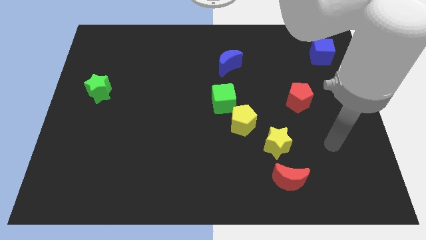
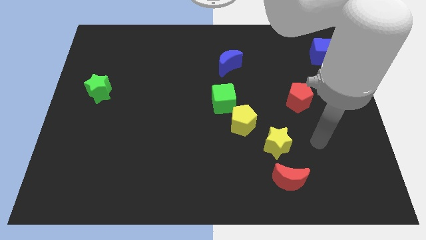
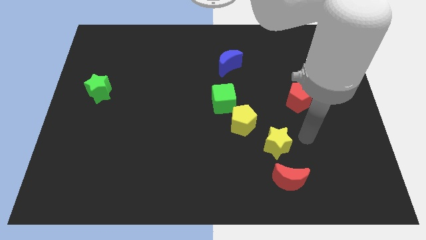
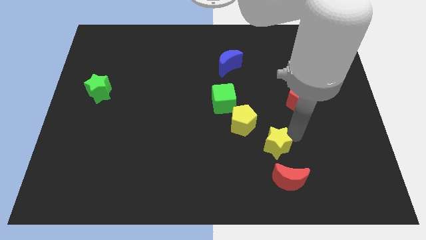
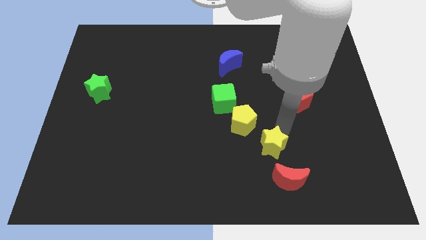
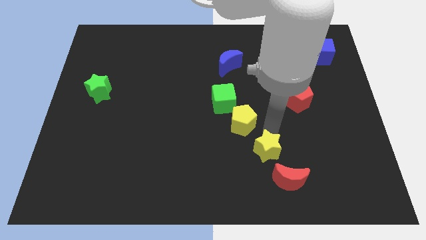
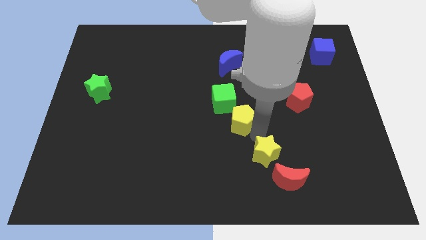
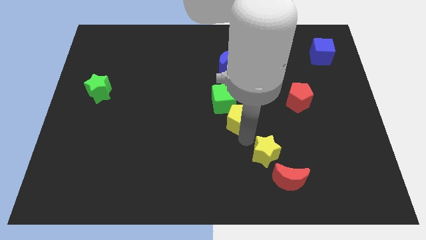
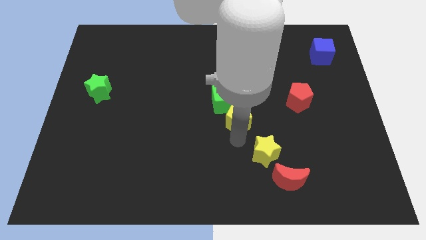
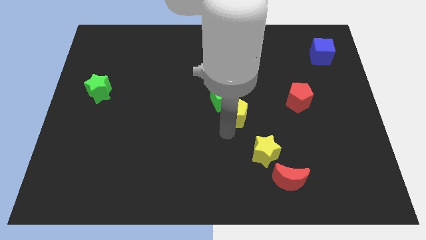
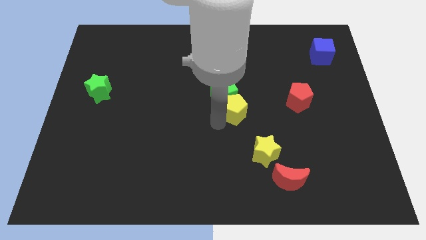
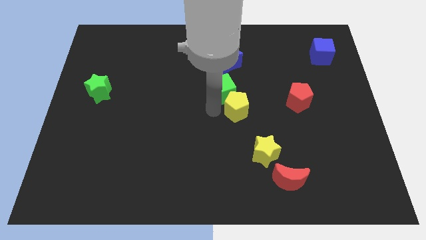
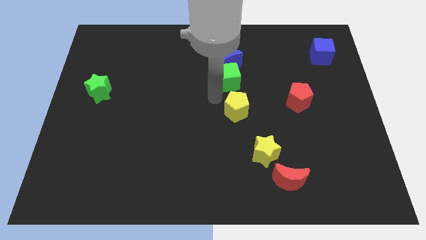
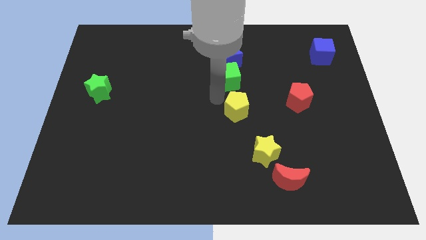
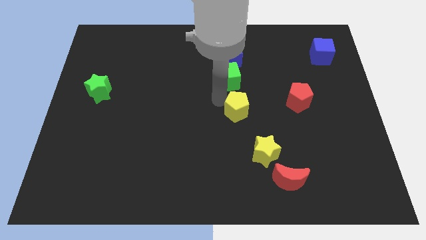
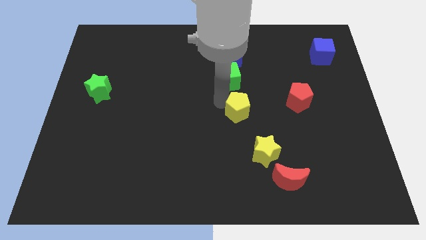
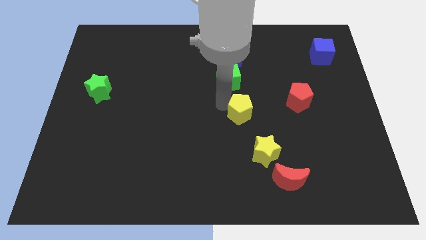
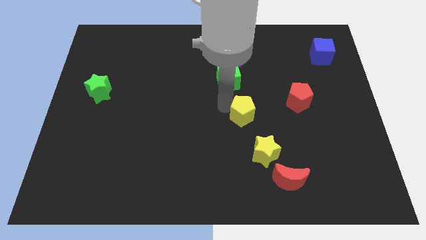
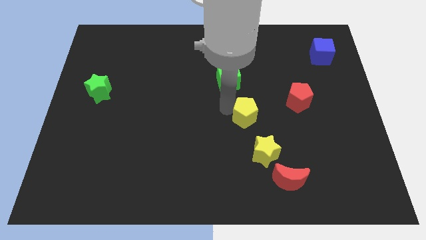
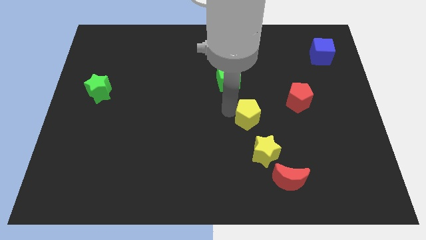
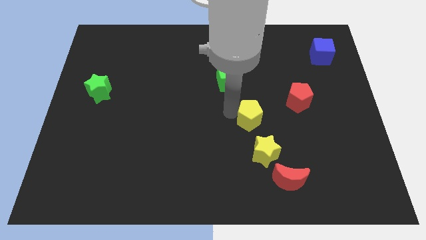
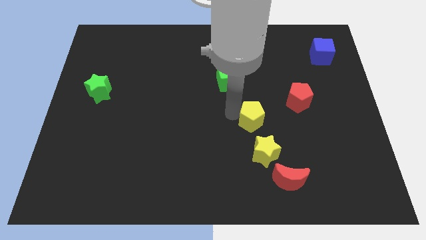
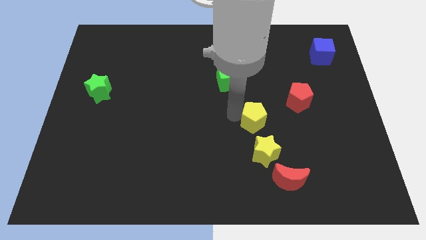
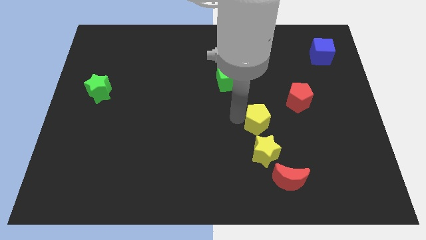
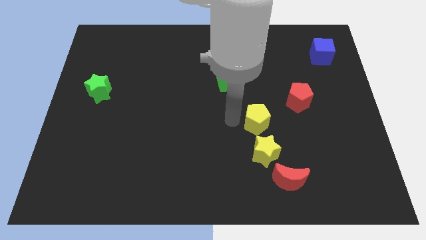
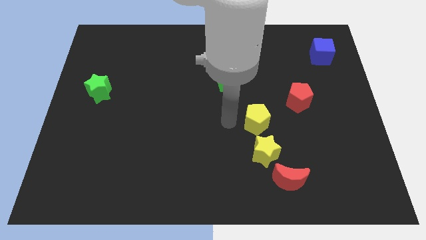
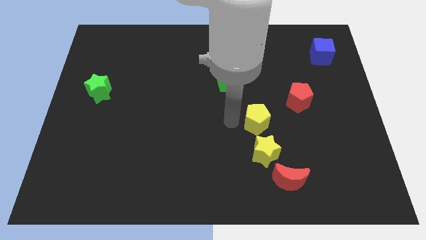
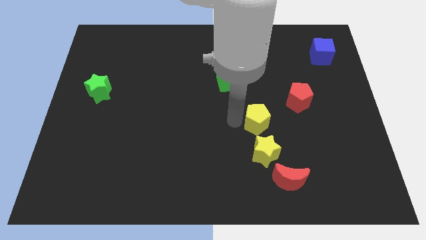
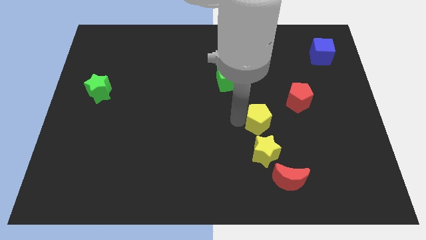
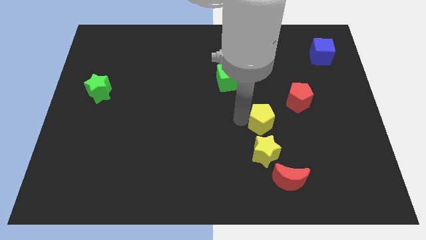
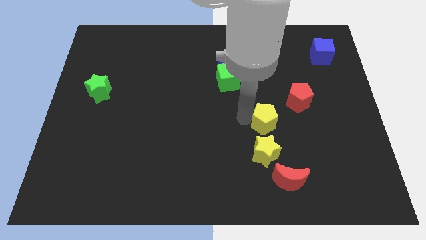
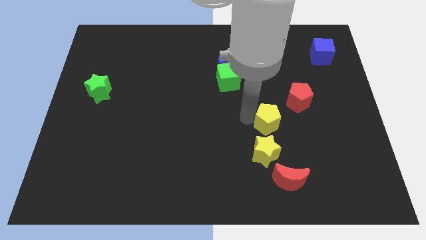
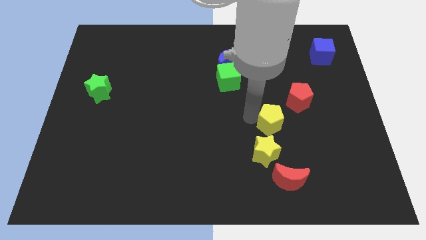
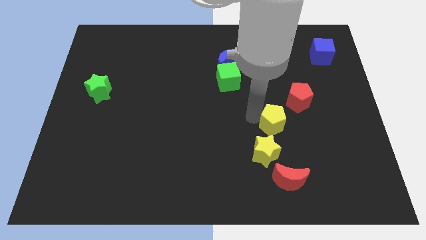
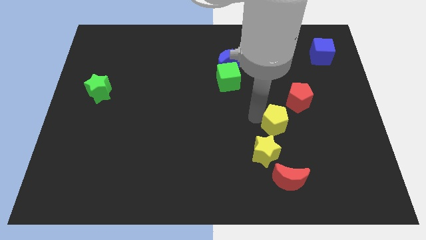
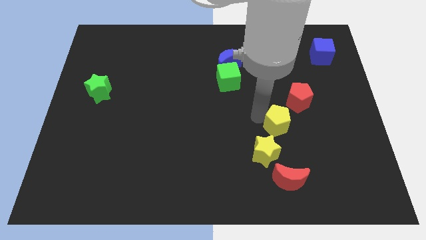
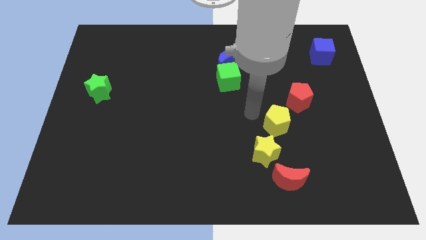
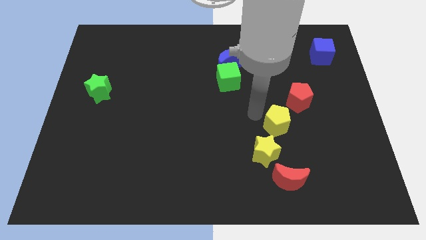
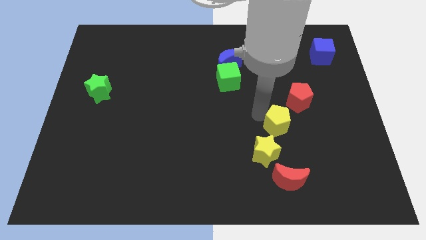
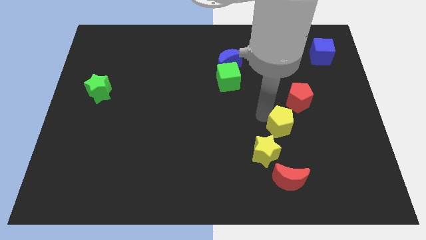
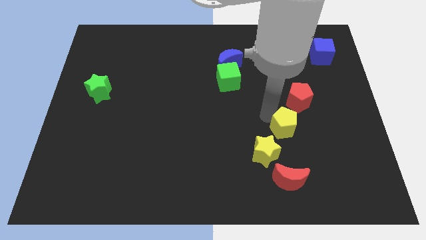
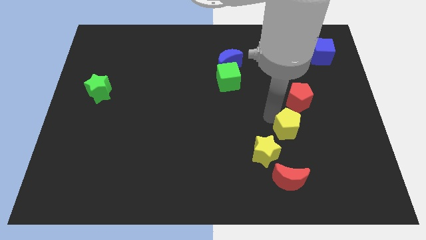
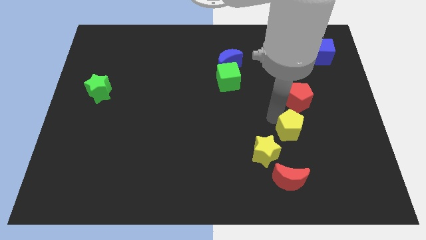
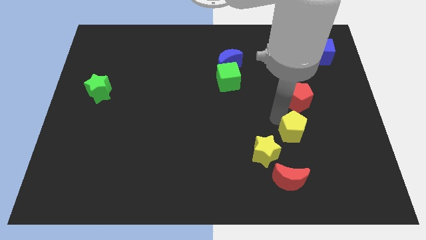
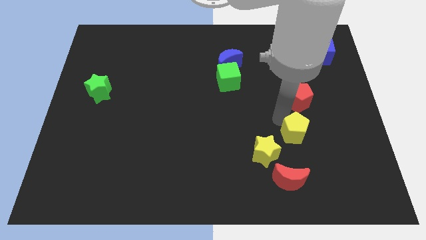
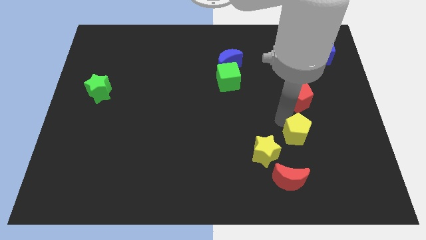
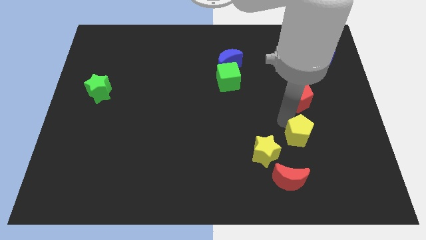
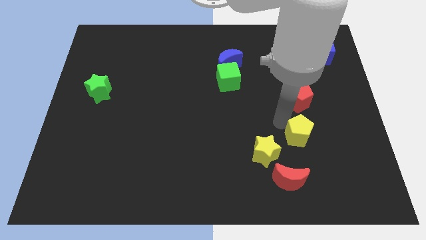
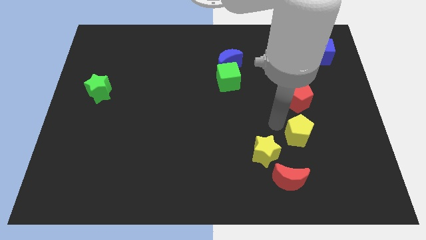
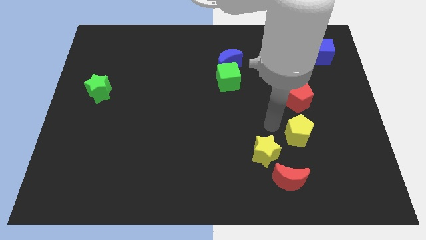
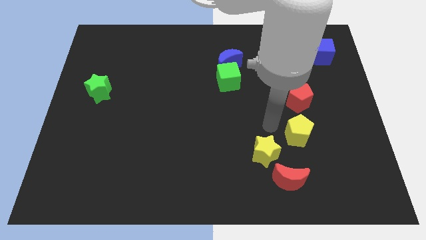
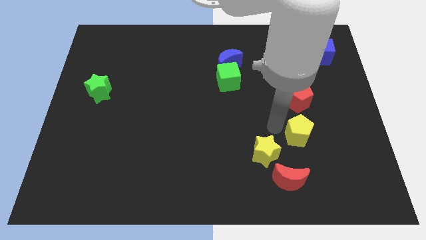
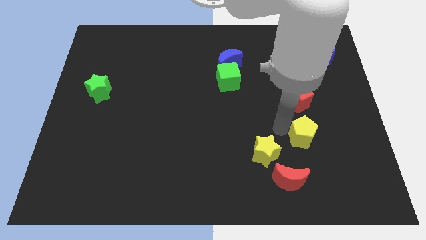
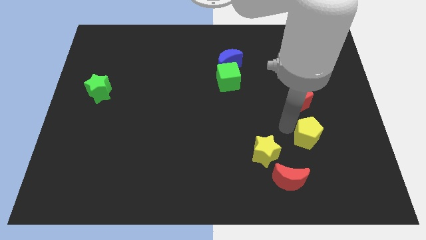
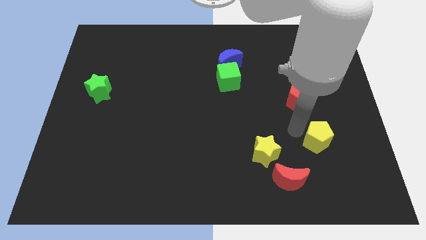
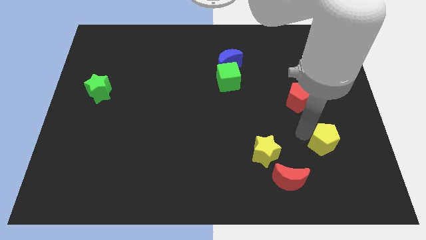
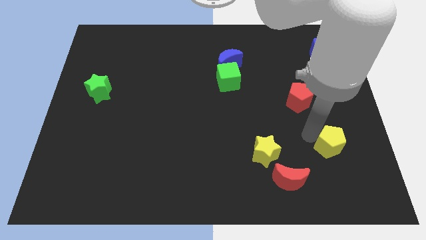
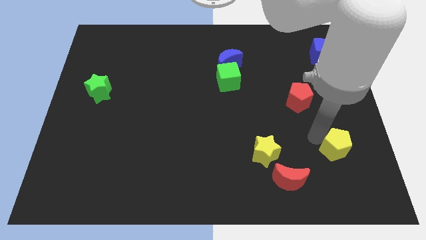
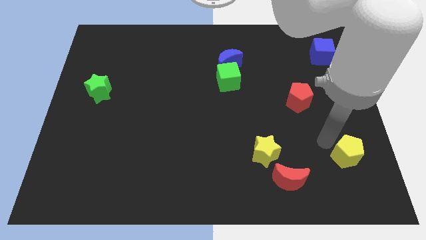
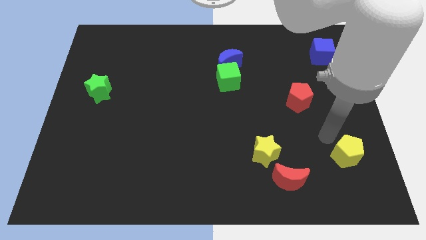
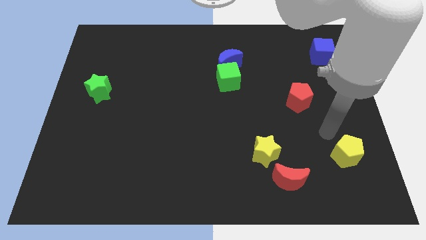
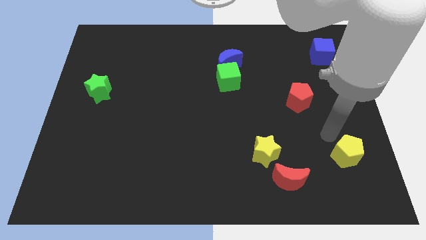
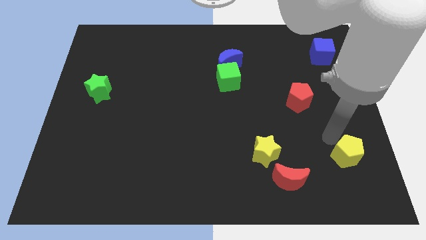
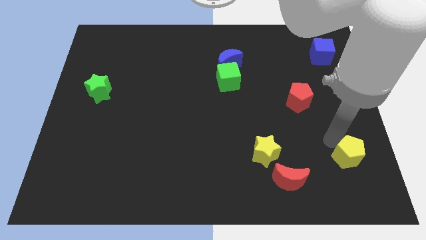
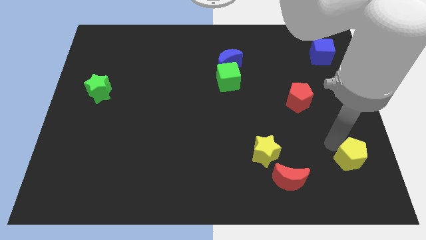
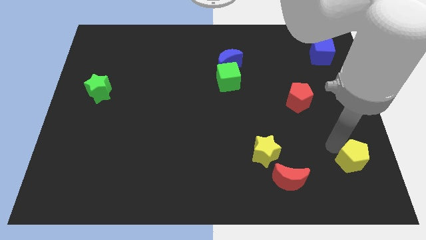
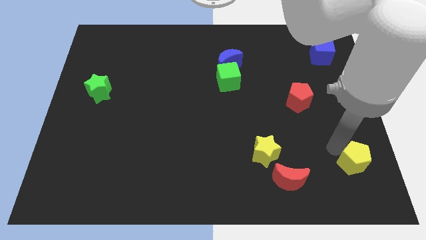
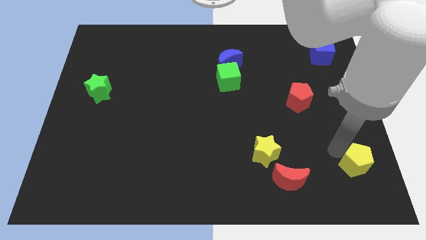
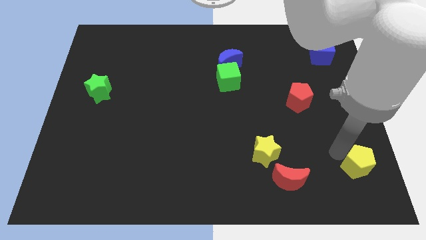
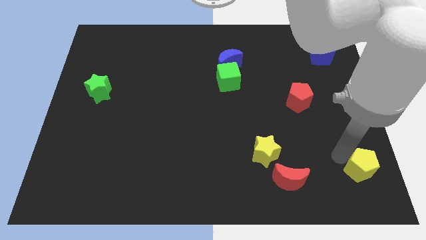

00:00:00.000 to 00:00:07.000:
move the yellow pentagon to the lower right corner

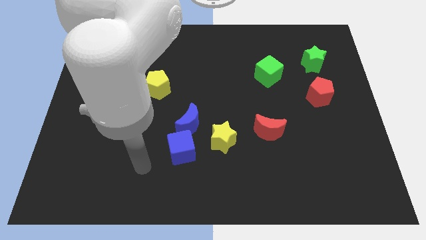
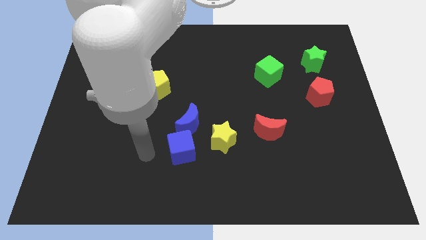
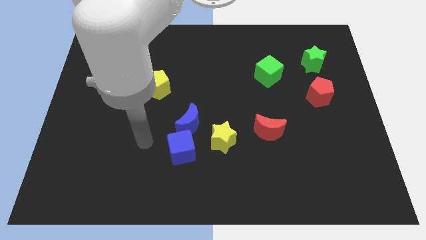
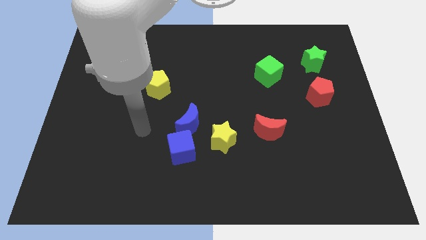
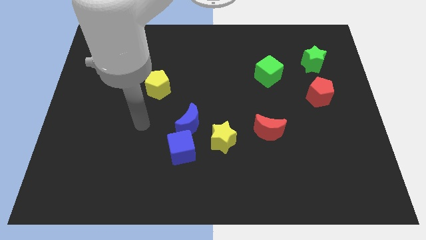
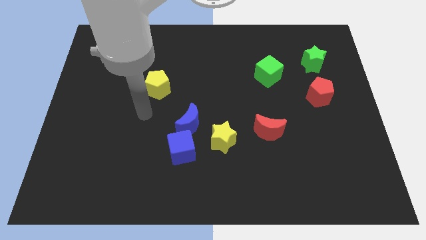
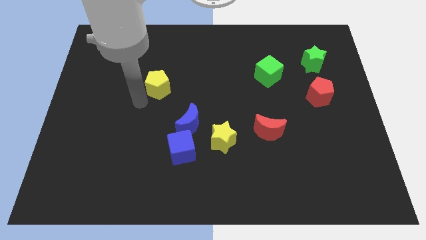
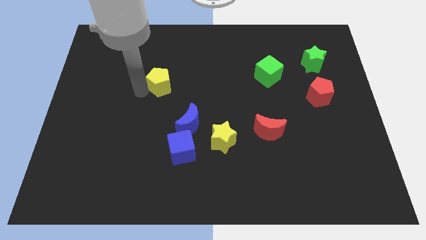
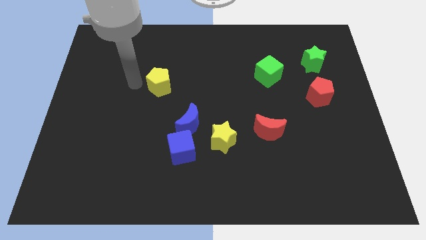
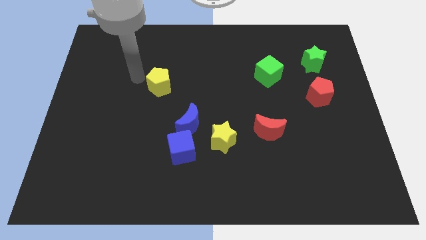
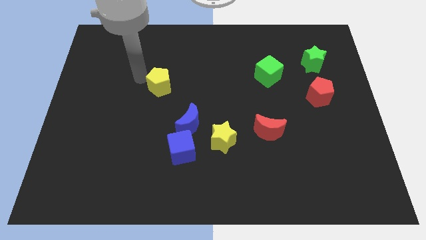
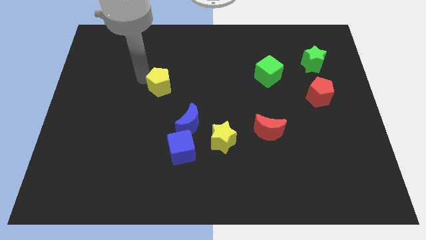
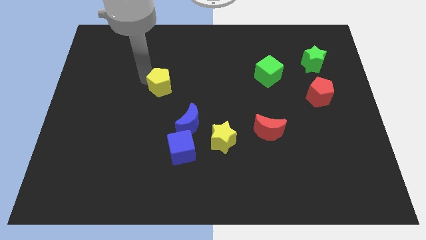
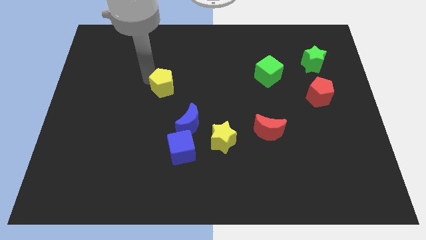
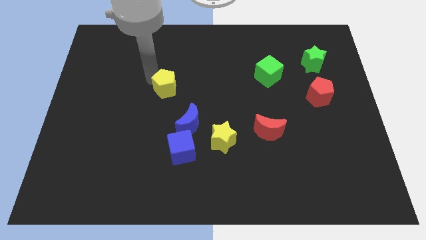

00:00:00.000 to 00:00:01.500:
move the yellow pentagon to the middle of the board
